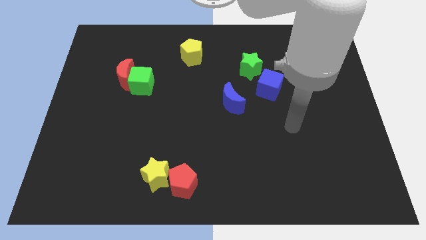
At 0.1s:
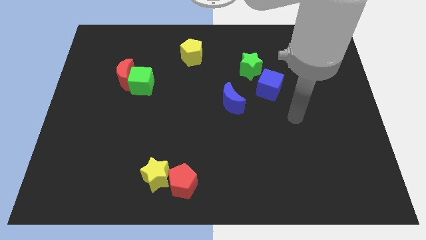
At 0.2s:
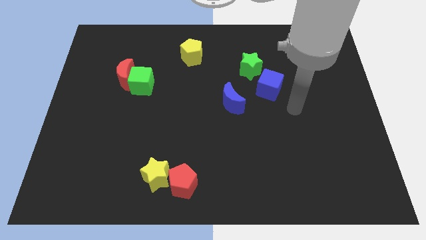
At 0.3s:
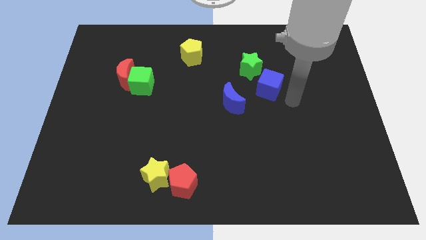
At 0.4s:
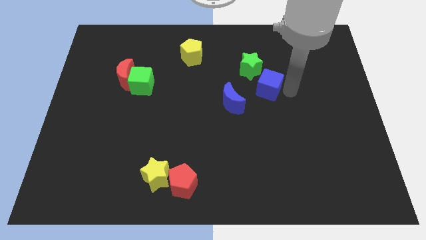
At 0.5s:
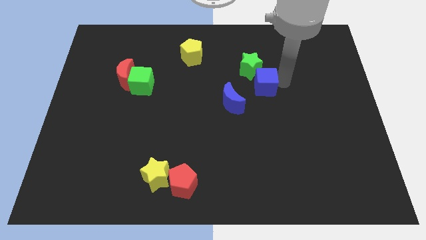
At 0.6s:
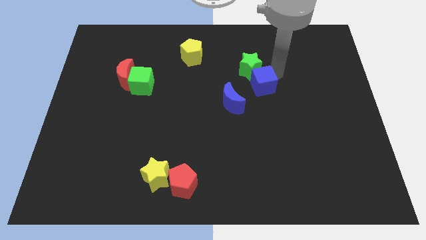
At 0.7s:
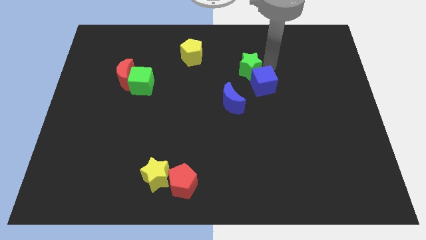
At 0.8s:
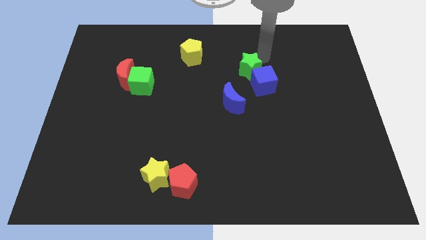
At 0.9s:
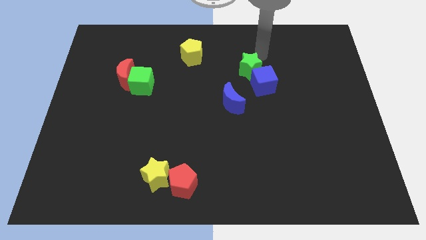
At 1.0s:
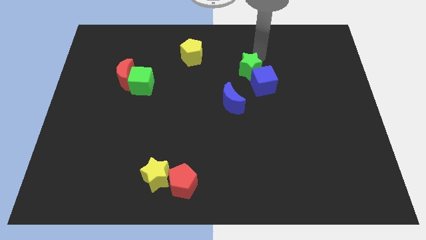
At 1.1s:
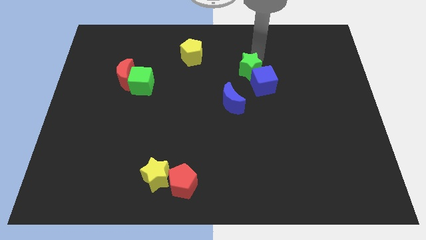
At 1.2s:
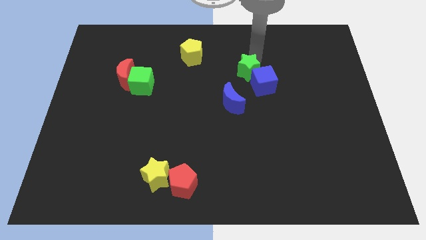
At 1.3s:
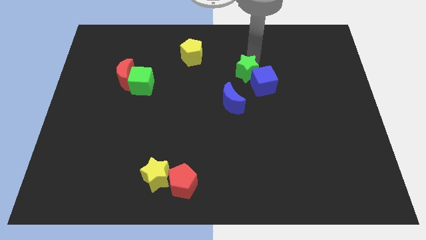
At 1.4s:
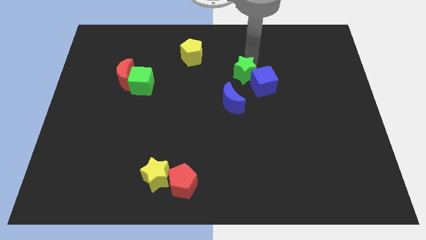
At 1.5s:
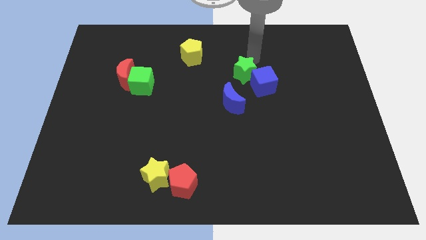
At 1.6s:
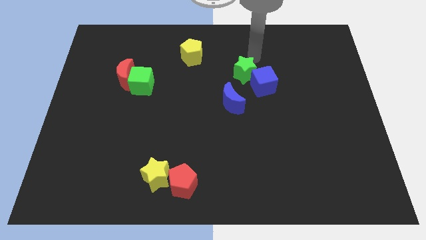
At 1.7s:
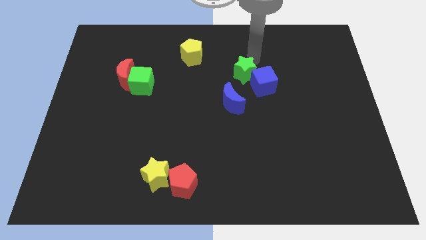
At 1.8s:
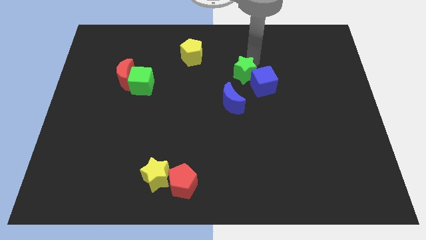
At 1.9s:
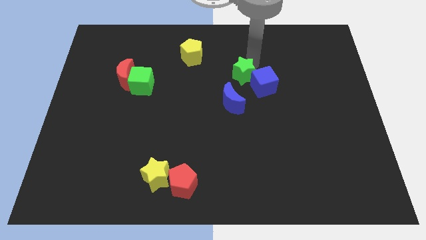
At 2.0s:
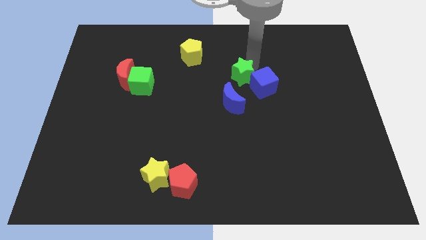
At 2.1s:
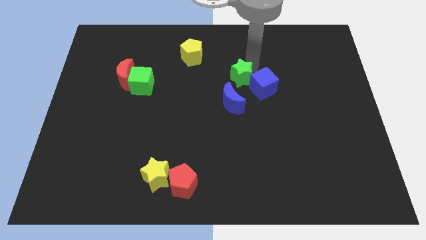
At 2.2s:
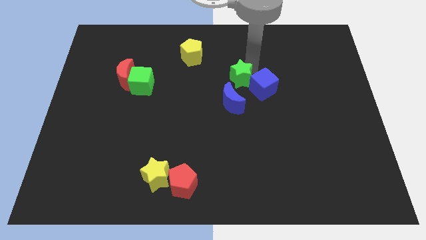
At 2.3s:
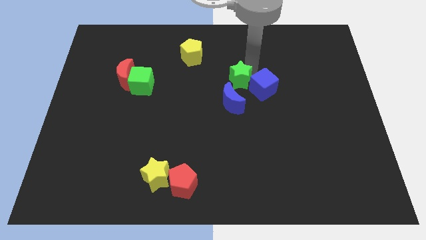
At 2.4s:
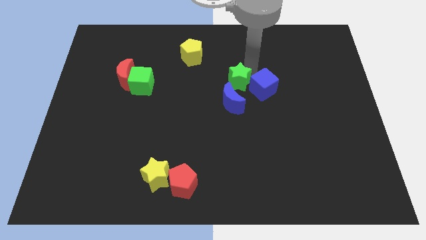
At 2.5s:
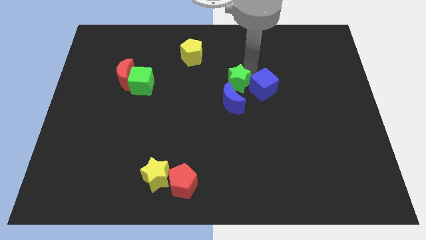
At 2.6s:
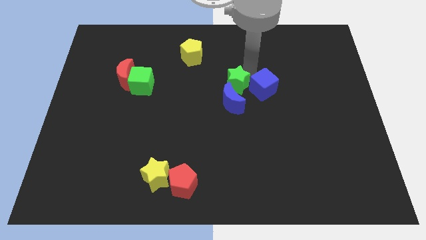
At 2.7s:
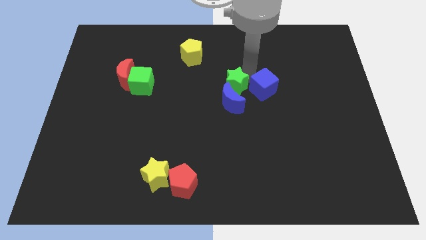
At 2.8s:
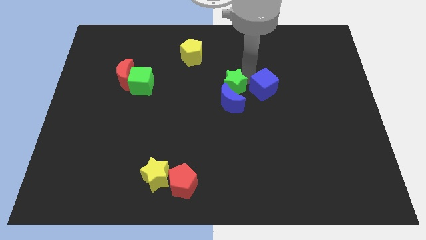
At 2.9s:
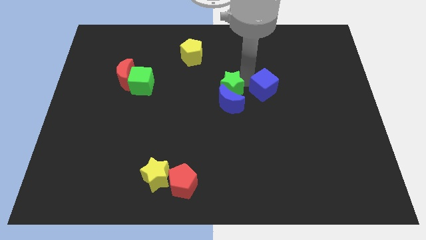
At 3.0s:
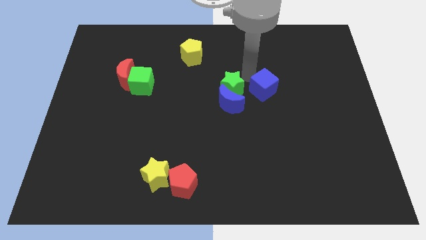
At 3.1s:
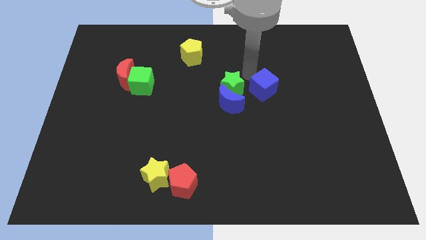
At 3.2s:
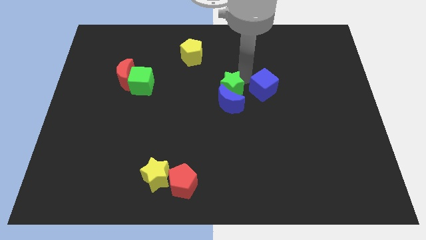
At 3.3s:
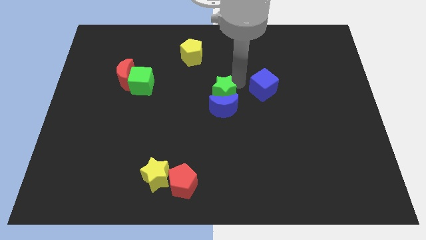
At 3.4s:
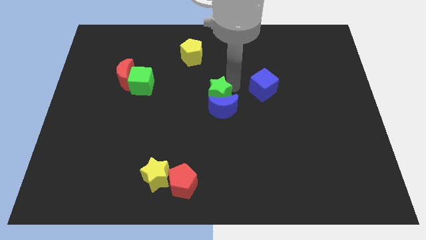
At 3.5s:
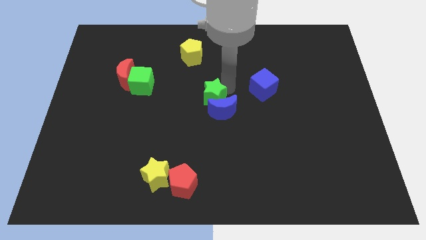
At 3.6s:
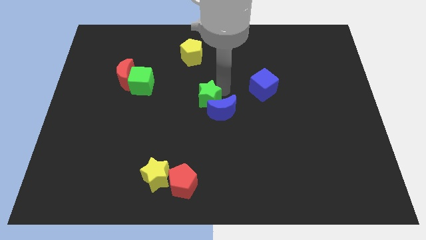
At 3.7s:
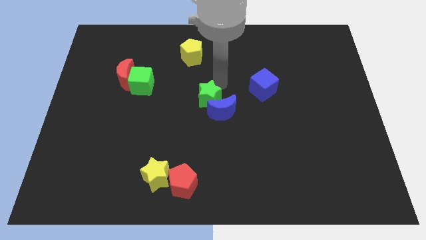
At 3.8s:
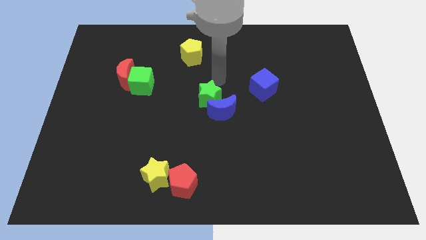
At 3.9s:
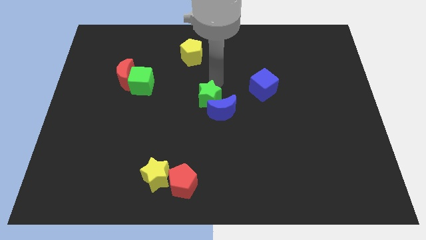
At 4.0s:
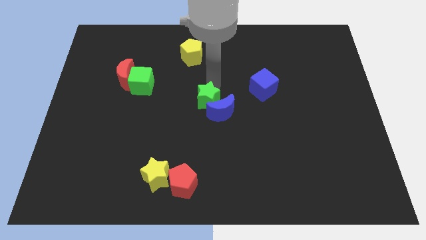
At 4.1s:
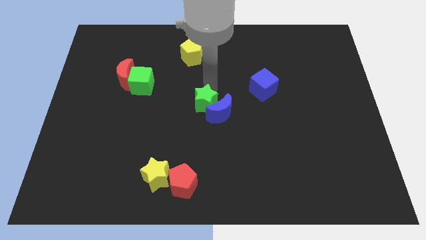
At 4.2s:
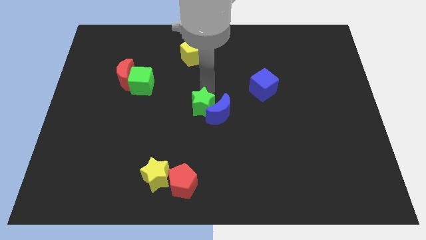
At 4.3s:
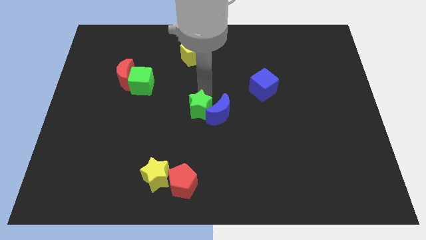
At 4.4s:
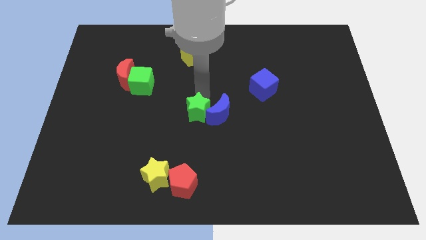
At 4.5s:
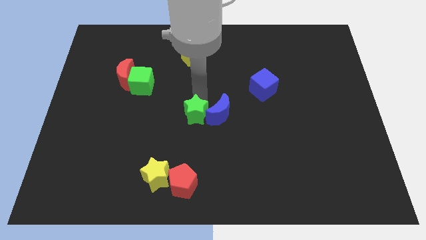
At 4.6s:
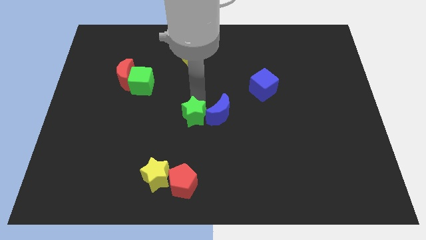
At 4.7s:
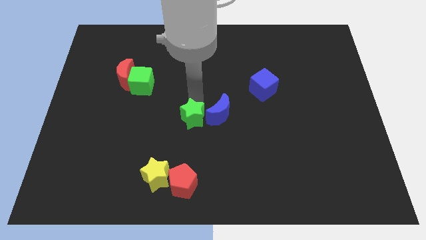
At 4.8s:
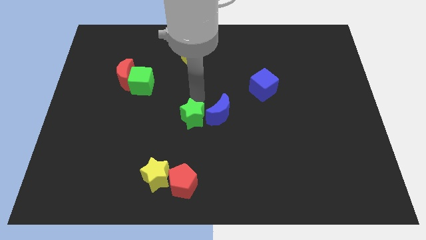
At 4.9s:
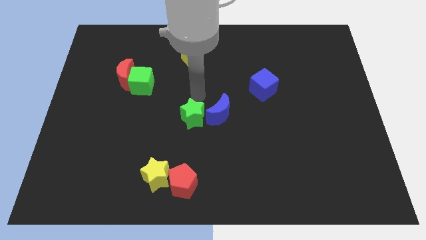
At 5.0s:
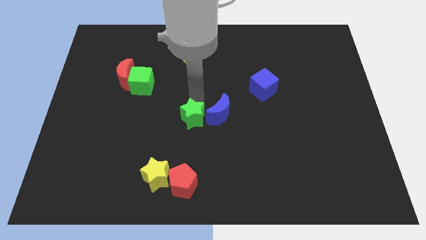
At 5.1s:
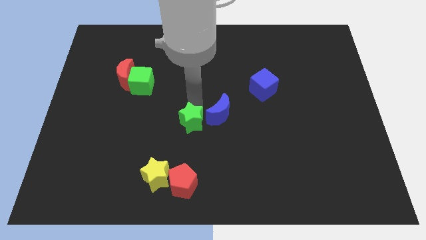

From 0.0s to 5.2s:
put the green star above the red pentagon
